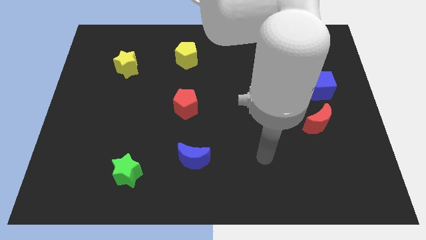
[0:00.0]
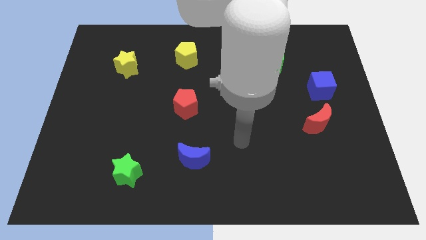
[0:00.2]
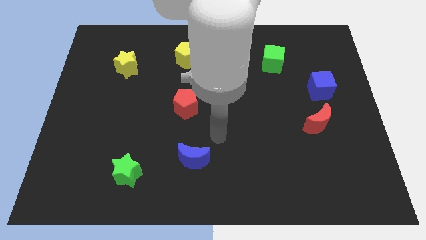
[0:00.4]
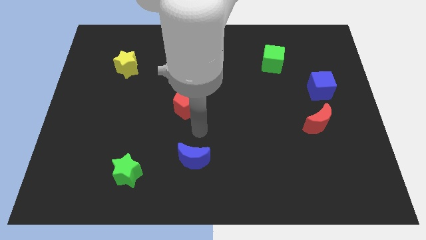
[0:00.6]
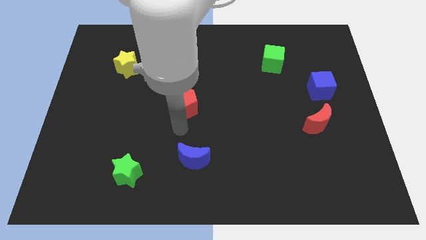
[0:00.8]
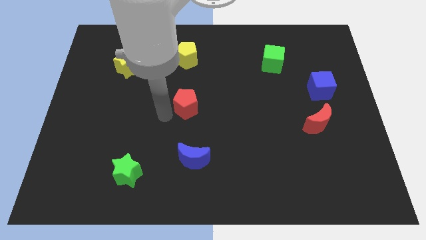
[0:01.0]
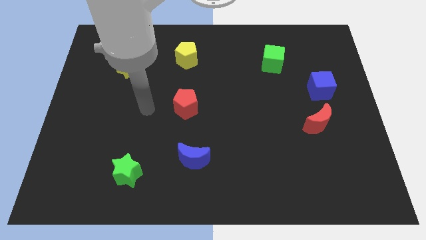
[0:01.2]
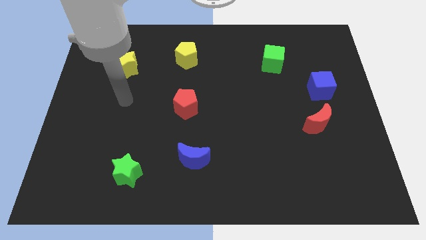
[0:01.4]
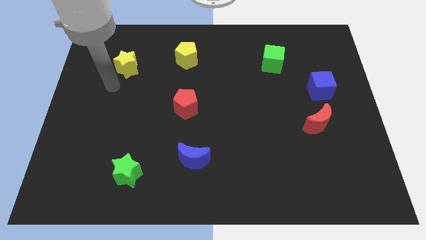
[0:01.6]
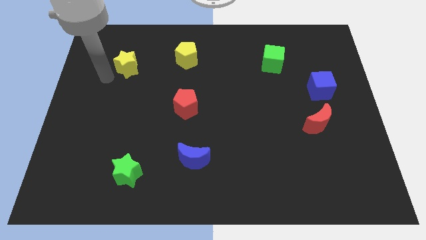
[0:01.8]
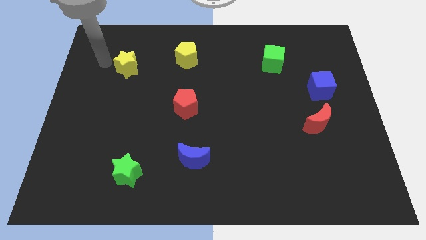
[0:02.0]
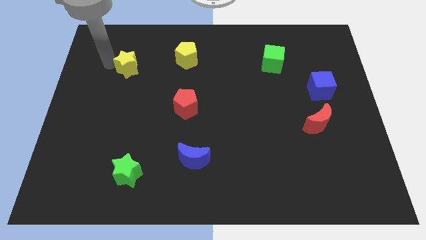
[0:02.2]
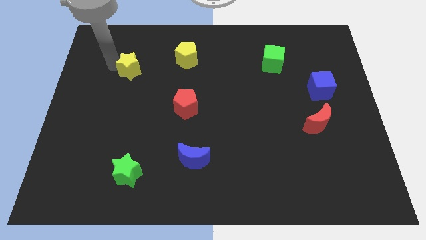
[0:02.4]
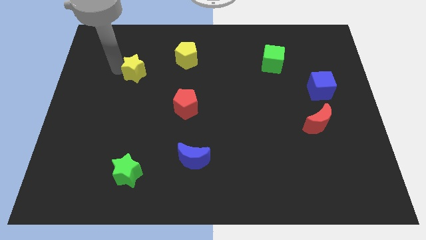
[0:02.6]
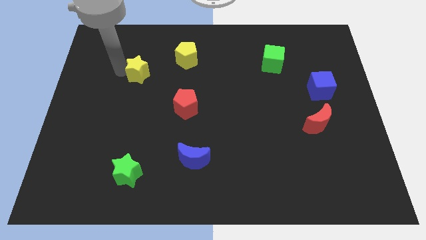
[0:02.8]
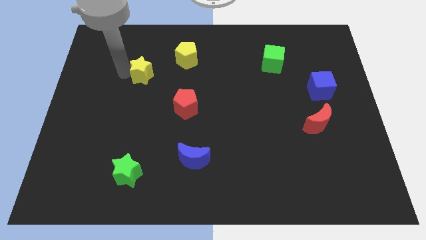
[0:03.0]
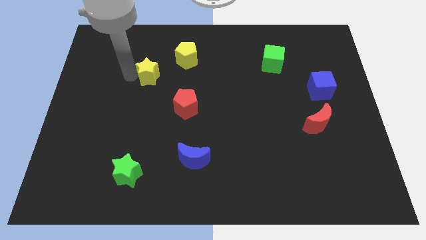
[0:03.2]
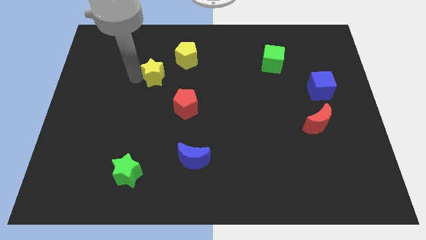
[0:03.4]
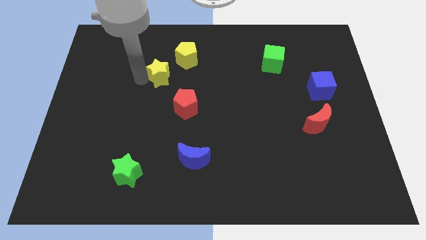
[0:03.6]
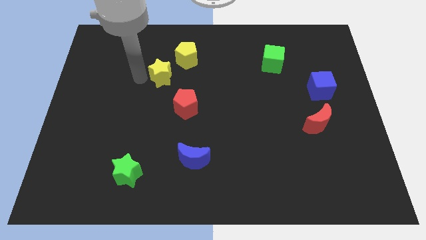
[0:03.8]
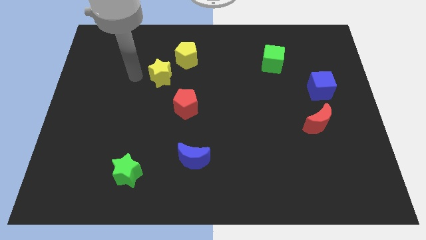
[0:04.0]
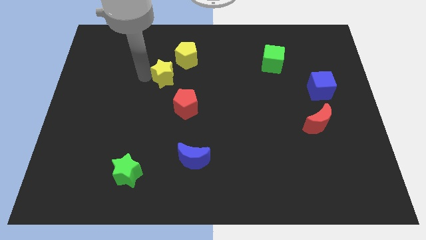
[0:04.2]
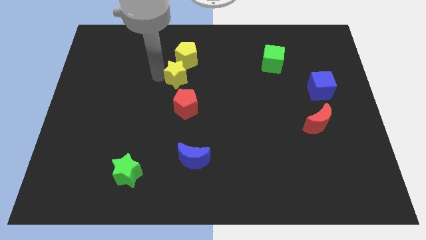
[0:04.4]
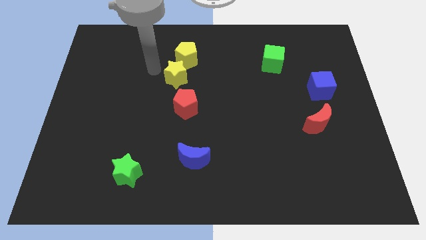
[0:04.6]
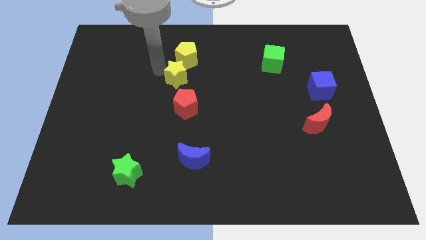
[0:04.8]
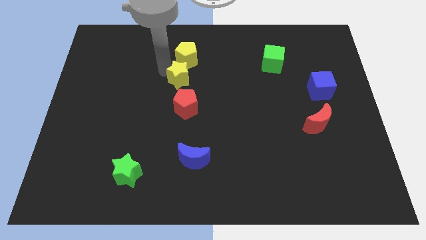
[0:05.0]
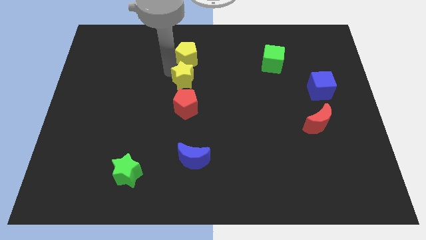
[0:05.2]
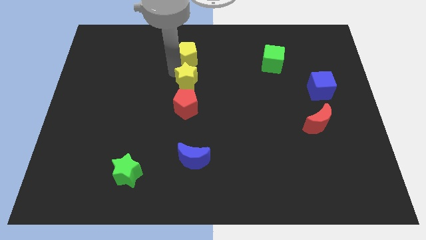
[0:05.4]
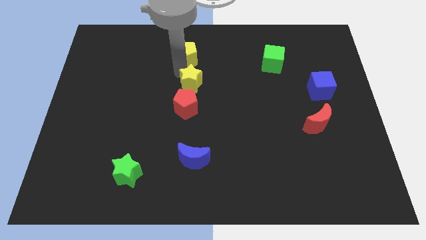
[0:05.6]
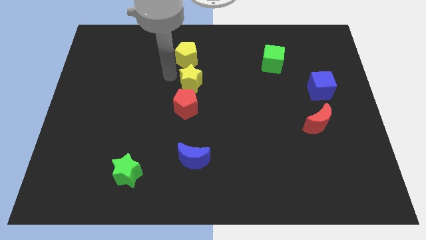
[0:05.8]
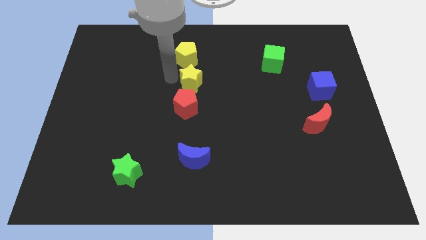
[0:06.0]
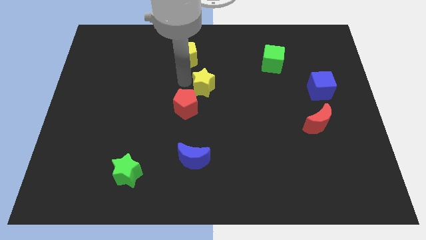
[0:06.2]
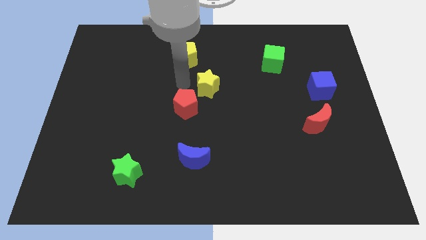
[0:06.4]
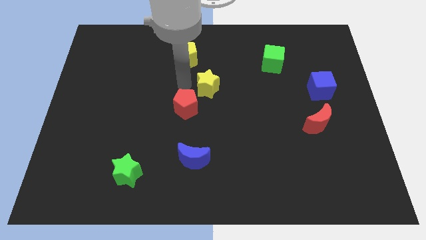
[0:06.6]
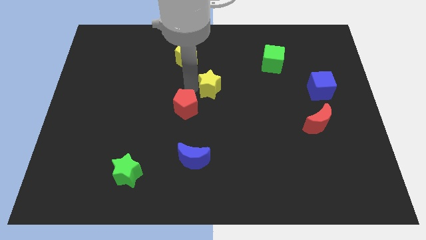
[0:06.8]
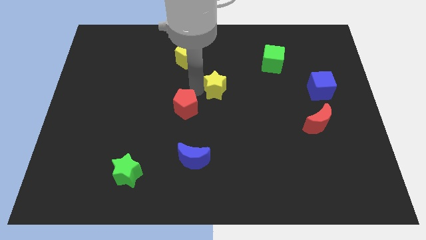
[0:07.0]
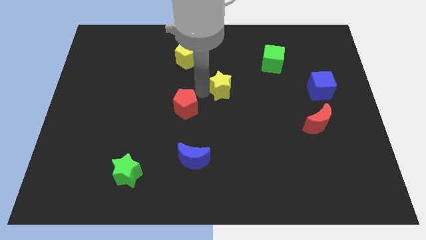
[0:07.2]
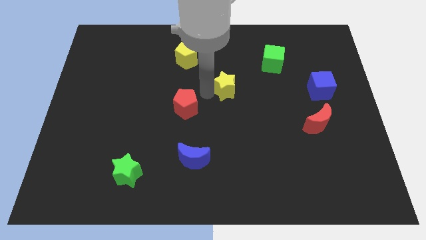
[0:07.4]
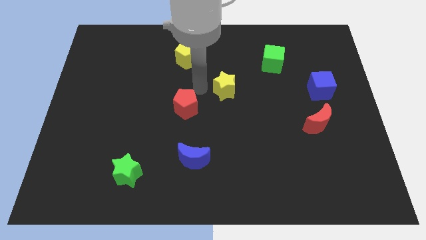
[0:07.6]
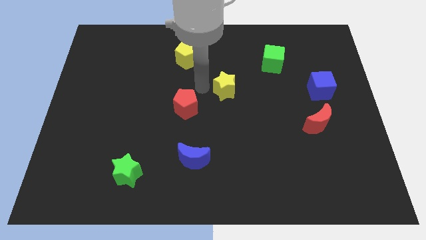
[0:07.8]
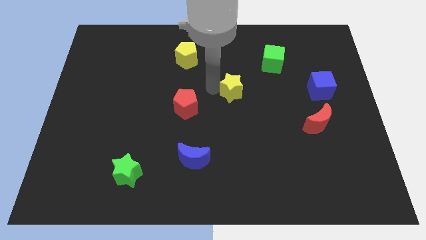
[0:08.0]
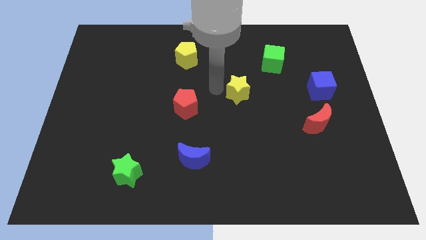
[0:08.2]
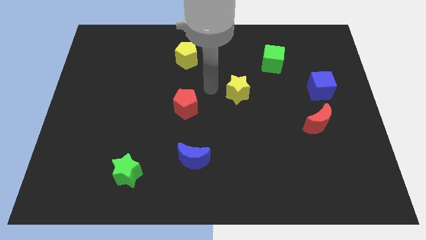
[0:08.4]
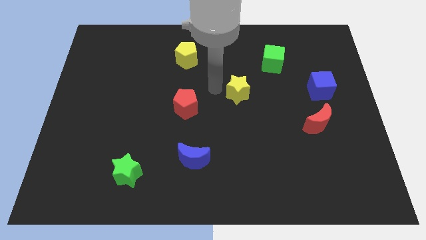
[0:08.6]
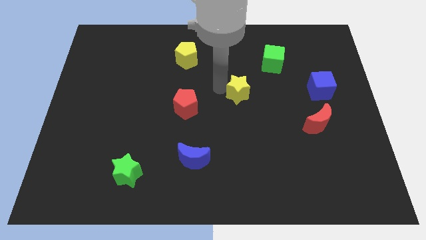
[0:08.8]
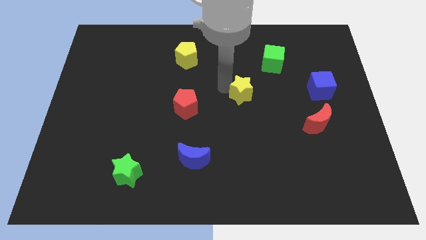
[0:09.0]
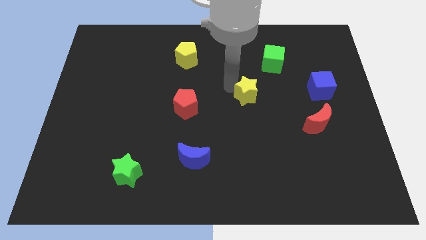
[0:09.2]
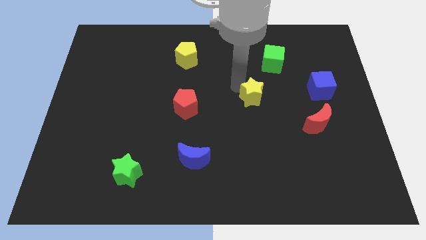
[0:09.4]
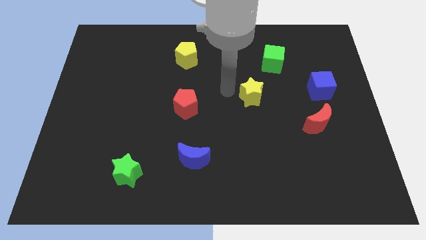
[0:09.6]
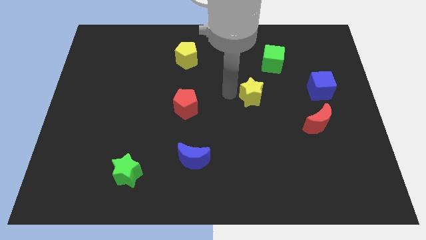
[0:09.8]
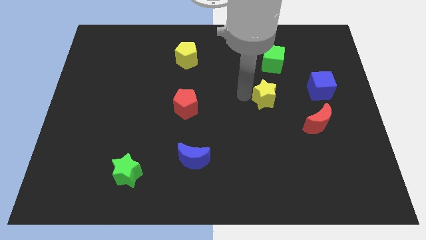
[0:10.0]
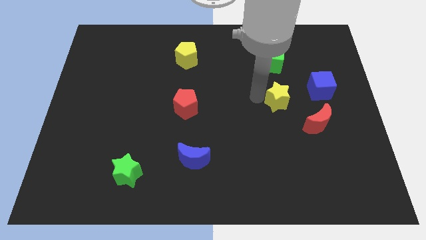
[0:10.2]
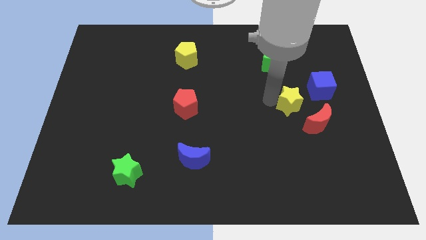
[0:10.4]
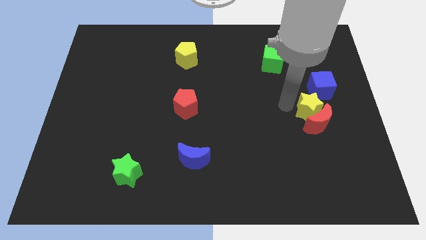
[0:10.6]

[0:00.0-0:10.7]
put the yellow star to the top right side of the red moon

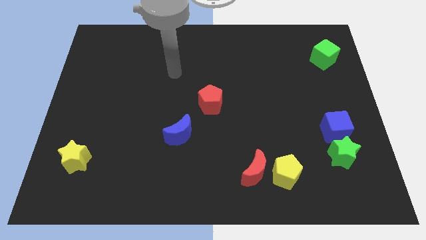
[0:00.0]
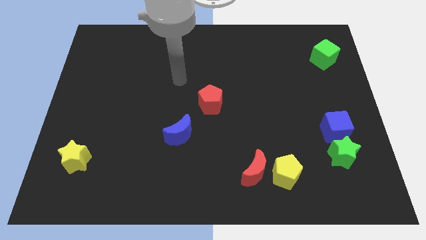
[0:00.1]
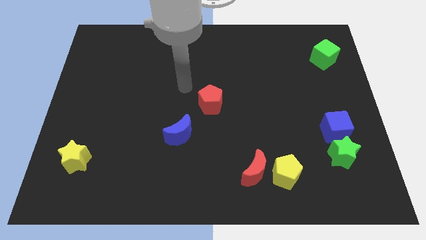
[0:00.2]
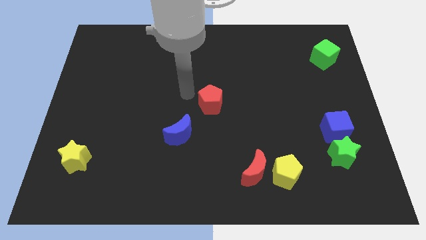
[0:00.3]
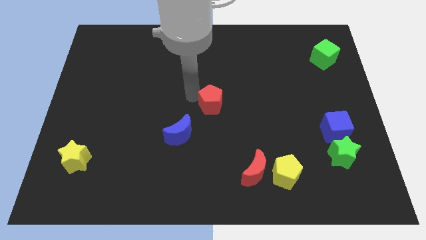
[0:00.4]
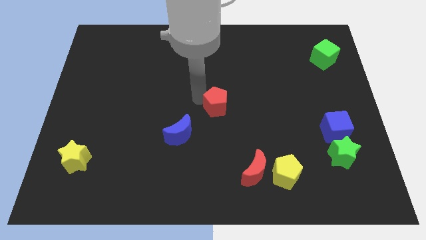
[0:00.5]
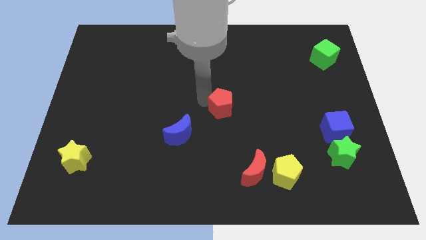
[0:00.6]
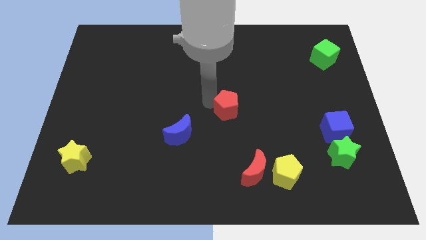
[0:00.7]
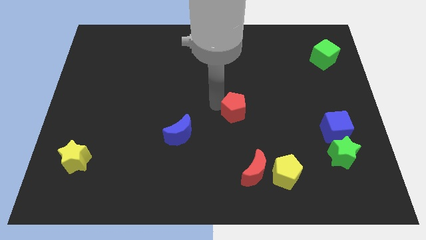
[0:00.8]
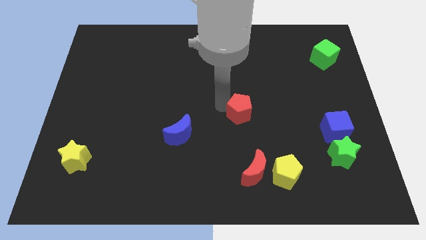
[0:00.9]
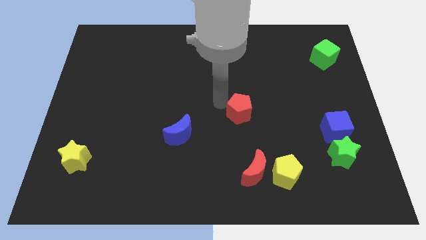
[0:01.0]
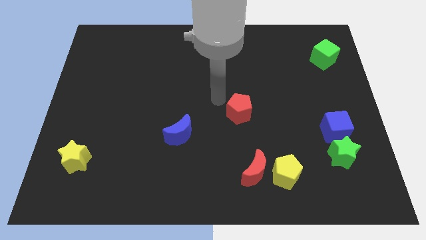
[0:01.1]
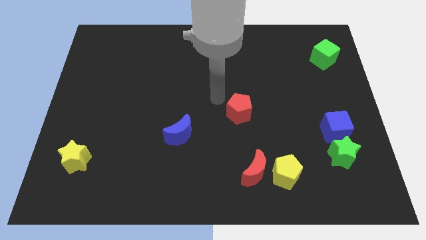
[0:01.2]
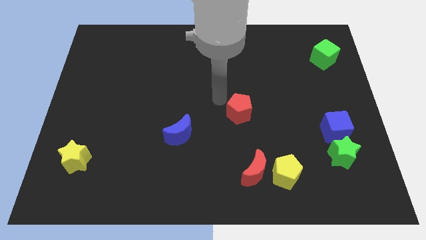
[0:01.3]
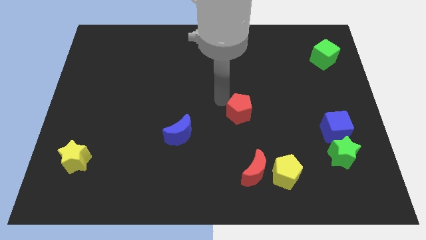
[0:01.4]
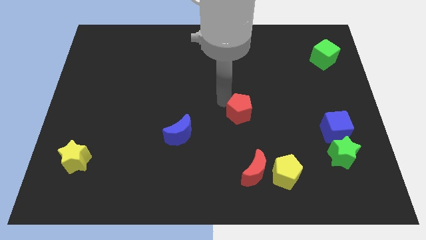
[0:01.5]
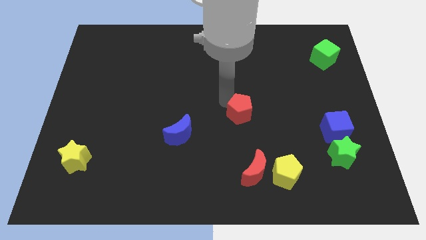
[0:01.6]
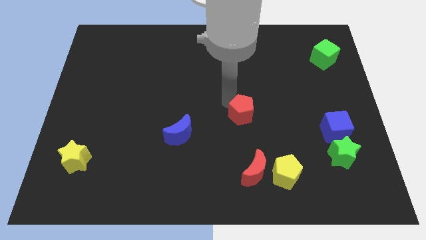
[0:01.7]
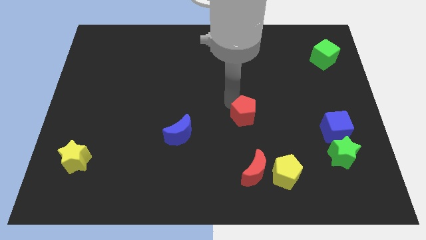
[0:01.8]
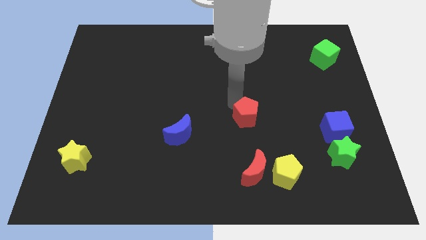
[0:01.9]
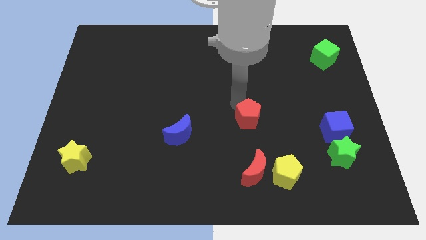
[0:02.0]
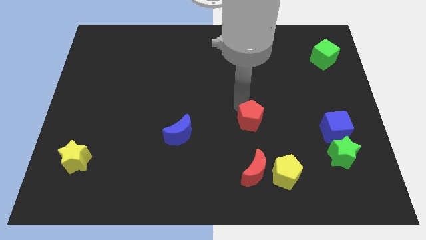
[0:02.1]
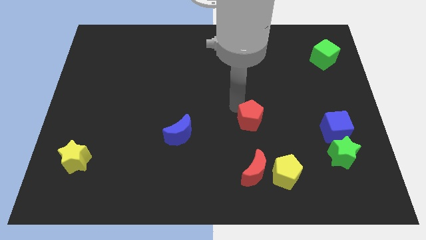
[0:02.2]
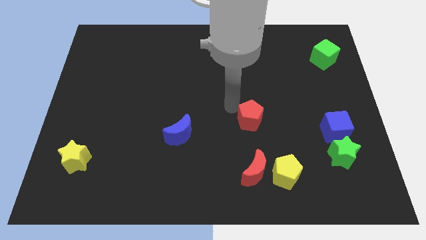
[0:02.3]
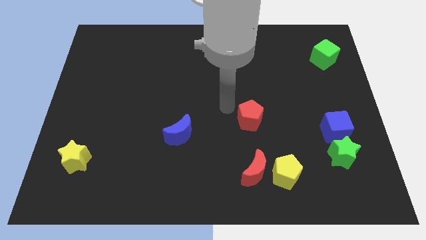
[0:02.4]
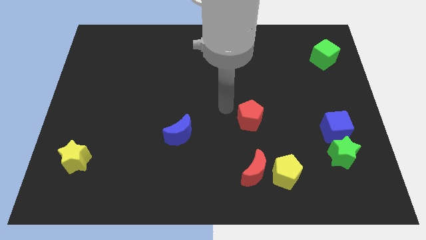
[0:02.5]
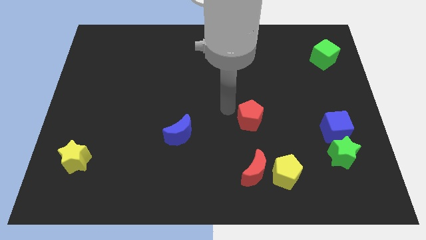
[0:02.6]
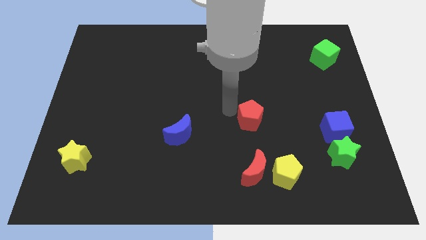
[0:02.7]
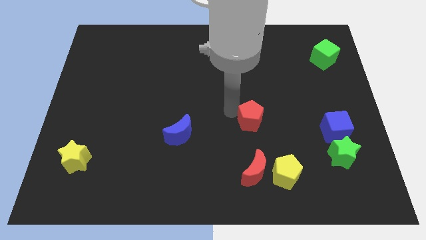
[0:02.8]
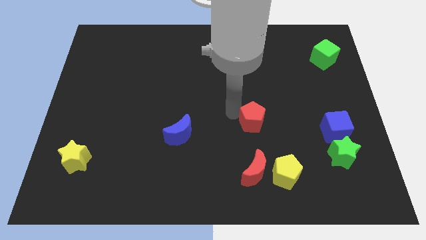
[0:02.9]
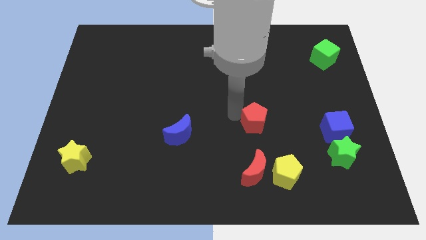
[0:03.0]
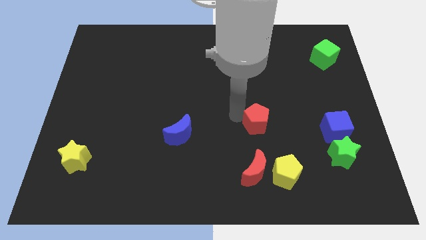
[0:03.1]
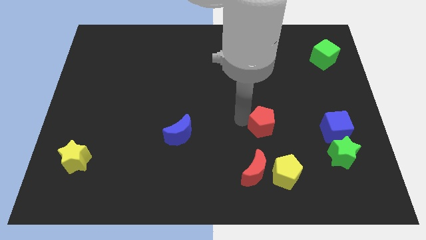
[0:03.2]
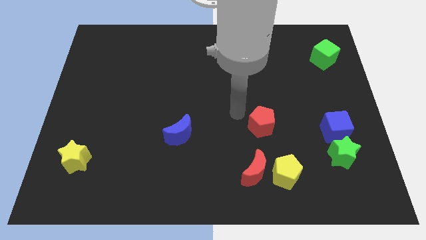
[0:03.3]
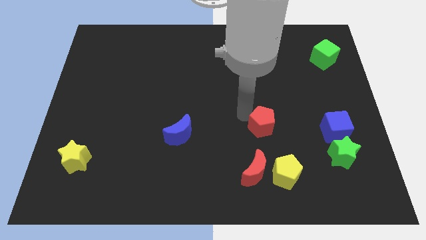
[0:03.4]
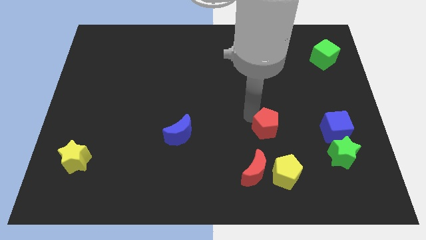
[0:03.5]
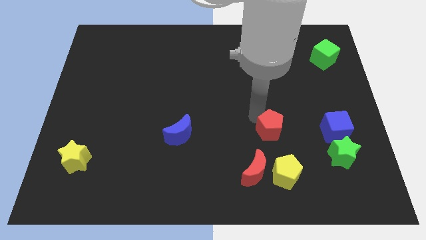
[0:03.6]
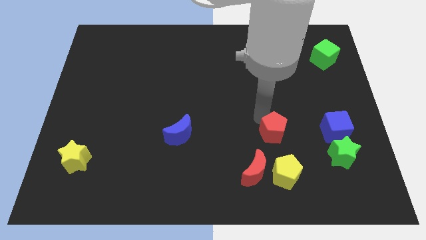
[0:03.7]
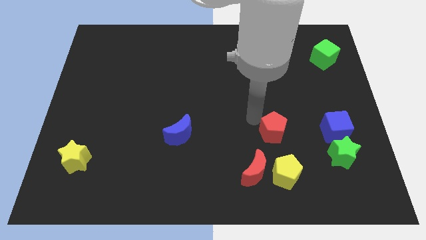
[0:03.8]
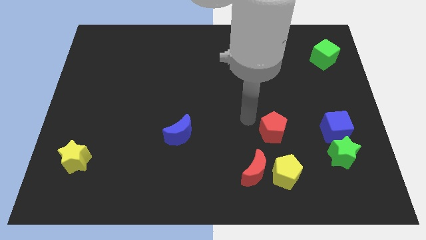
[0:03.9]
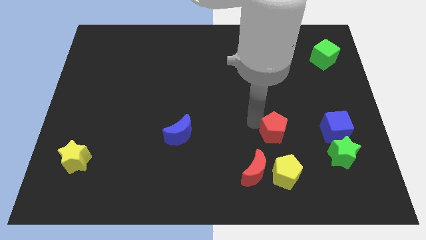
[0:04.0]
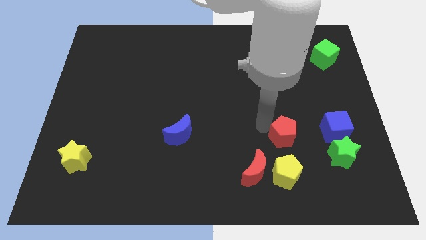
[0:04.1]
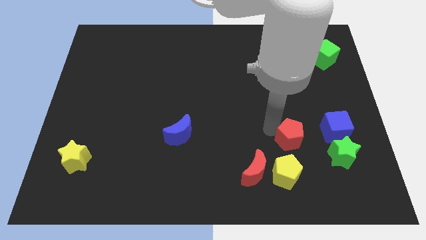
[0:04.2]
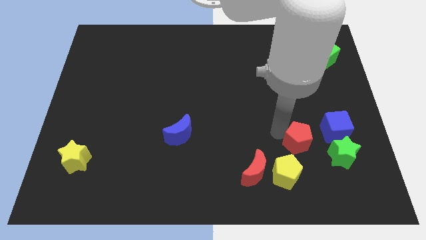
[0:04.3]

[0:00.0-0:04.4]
slide the red pentagon to the bottom left side of the blue cube
